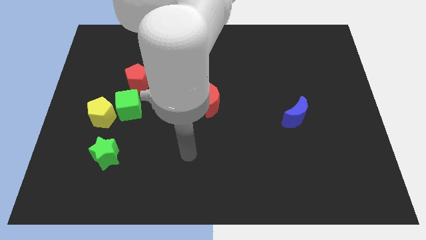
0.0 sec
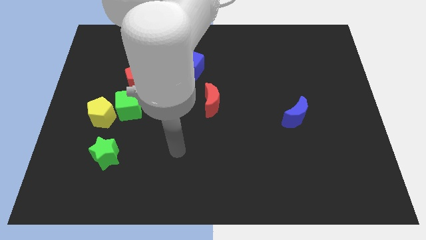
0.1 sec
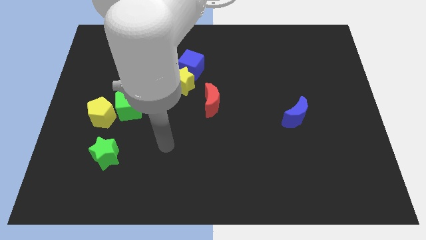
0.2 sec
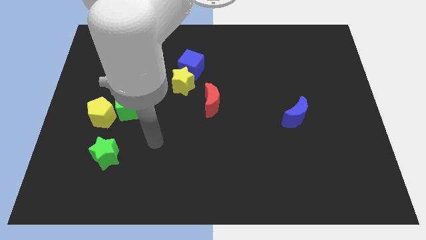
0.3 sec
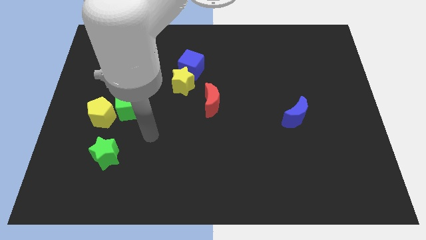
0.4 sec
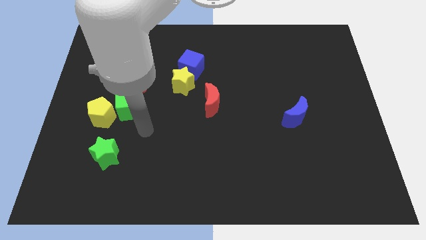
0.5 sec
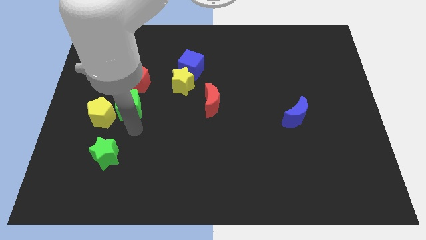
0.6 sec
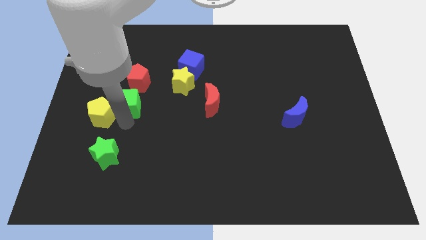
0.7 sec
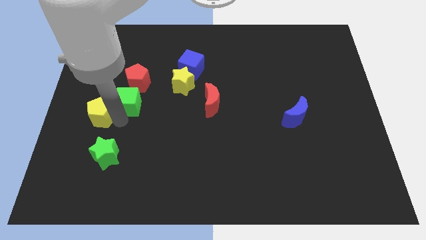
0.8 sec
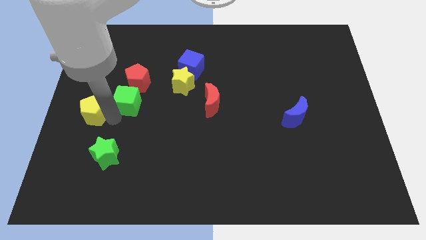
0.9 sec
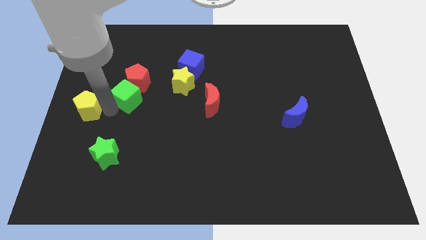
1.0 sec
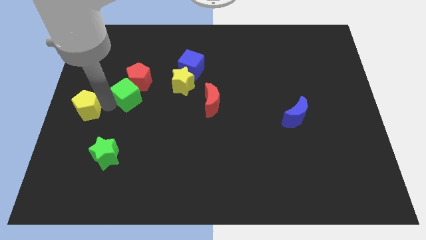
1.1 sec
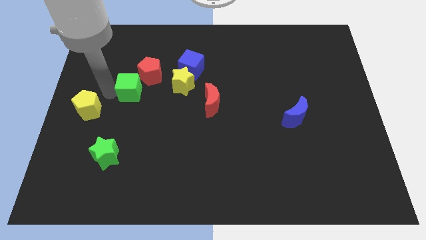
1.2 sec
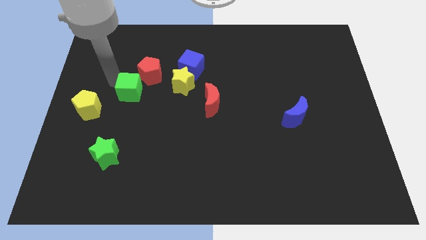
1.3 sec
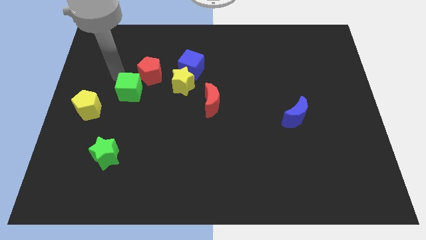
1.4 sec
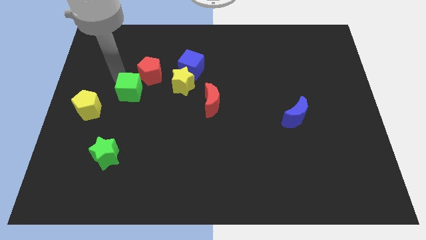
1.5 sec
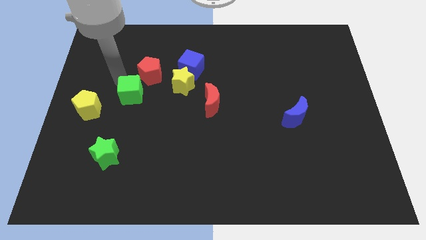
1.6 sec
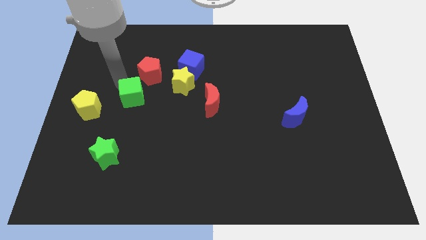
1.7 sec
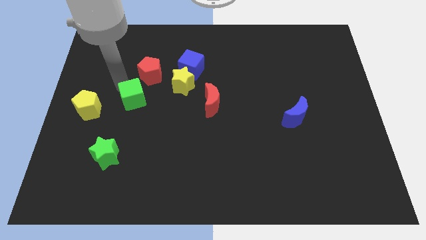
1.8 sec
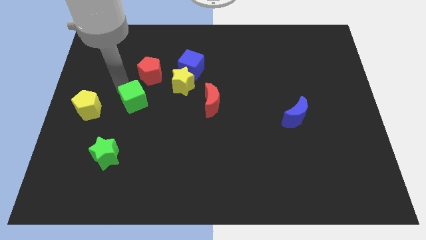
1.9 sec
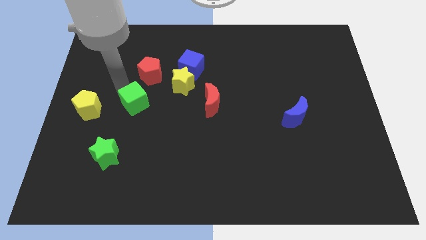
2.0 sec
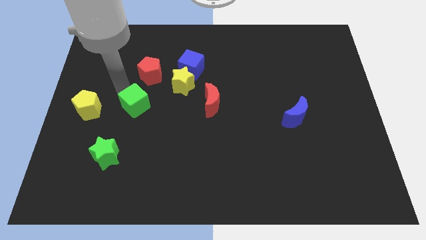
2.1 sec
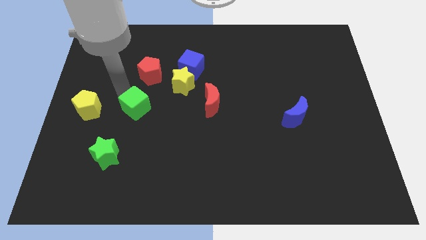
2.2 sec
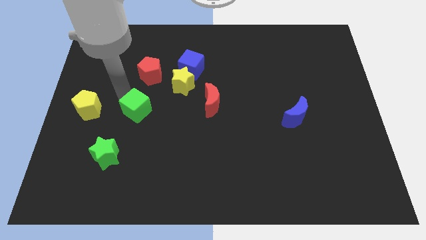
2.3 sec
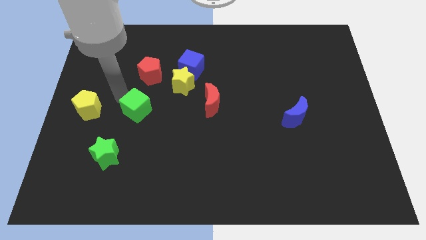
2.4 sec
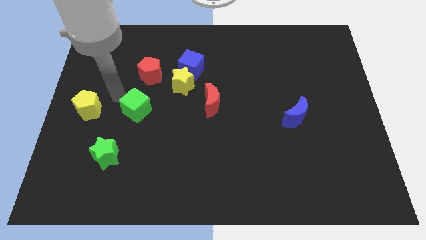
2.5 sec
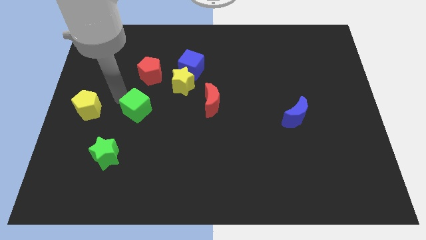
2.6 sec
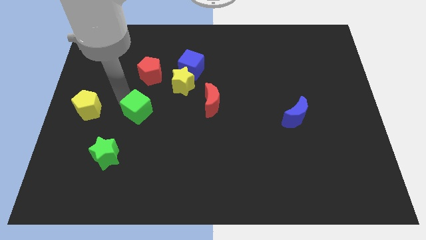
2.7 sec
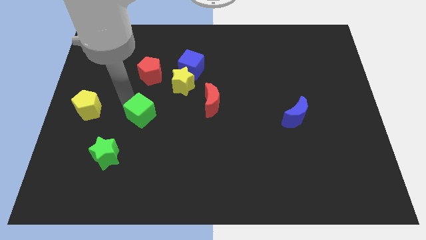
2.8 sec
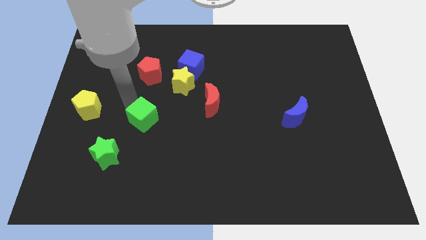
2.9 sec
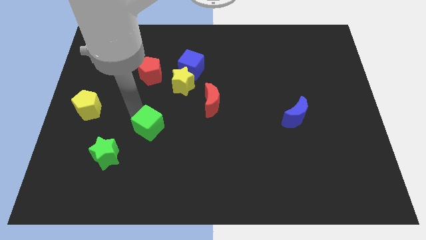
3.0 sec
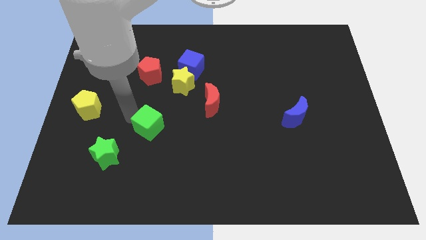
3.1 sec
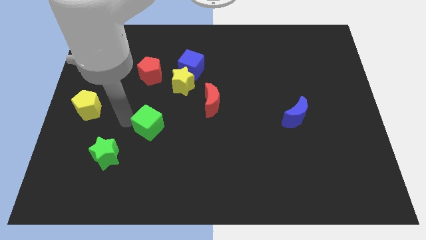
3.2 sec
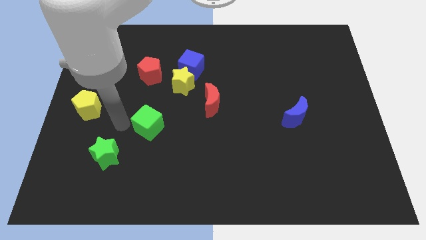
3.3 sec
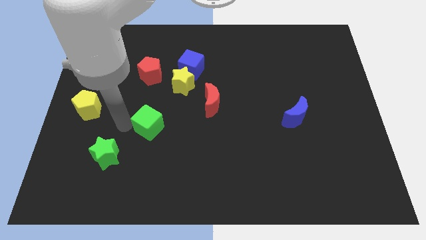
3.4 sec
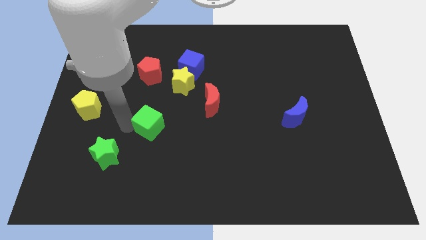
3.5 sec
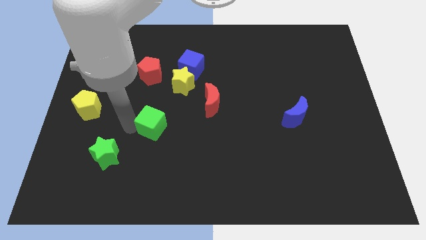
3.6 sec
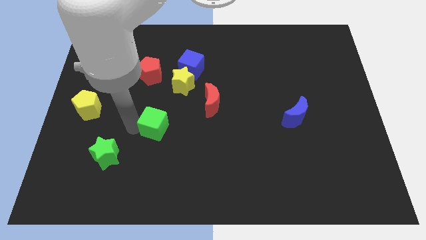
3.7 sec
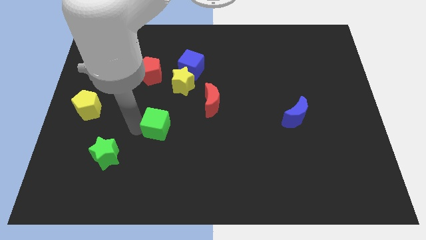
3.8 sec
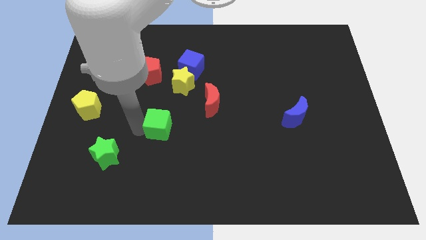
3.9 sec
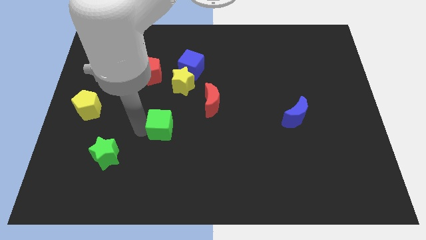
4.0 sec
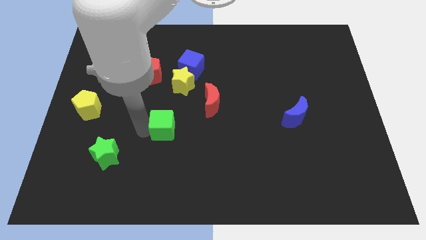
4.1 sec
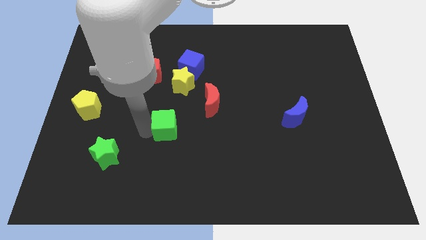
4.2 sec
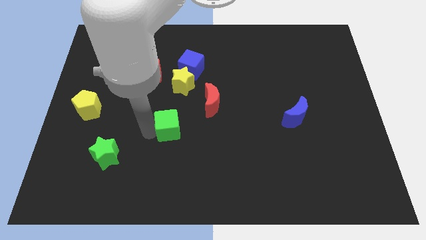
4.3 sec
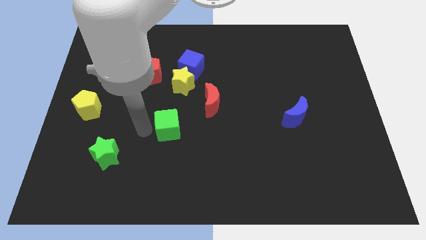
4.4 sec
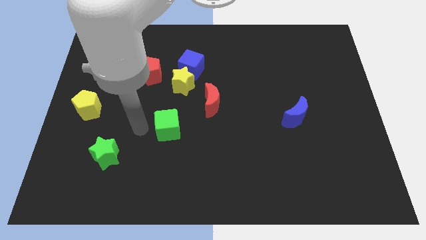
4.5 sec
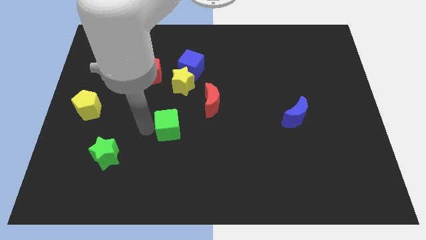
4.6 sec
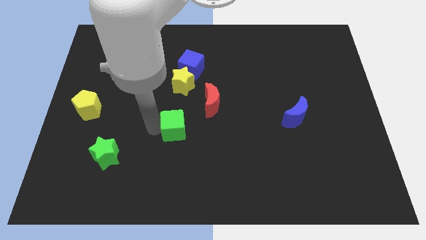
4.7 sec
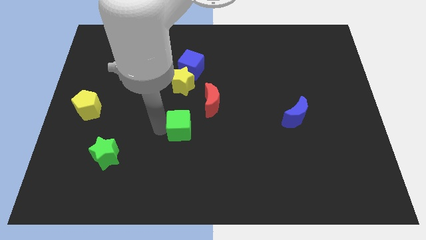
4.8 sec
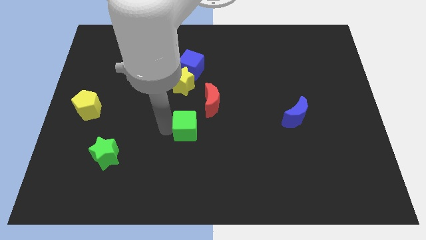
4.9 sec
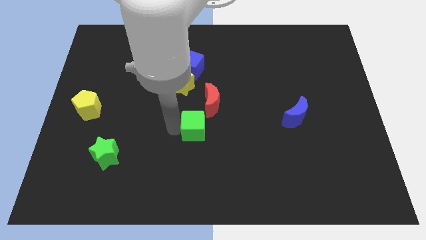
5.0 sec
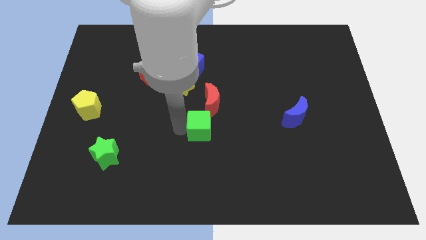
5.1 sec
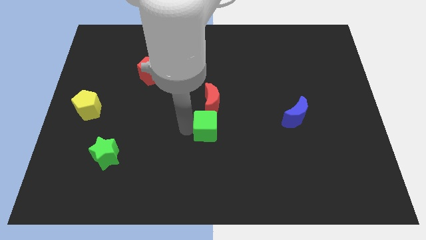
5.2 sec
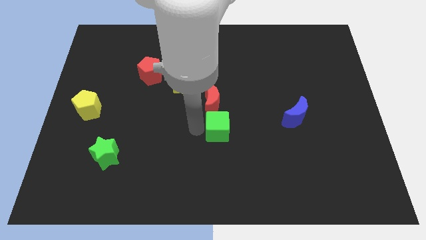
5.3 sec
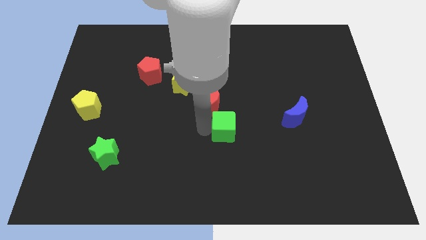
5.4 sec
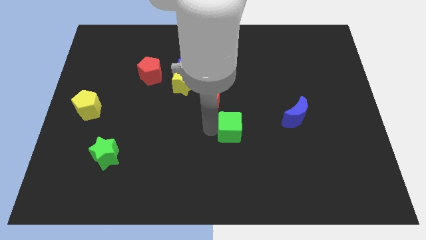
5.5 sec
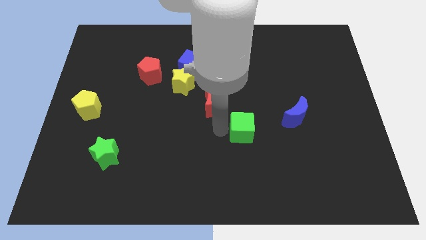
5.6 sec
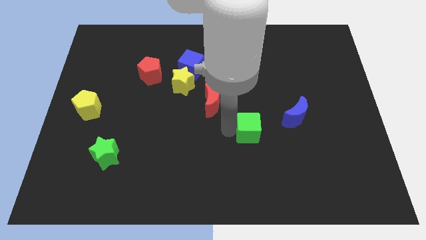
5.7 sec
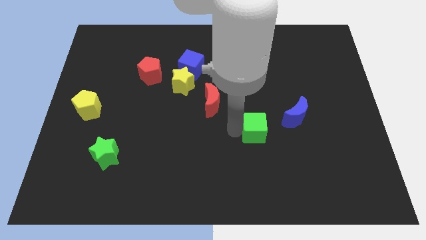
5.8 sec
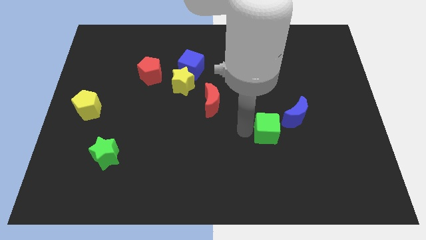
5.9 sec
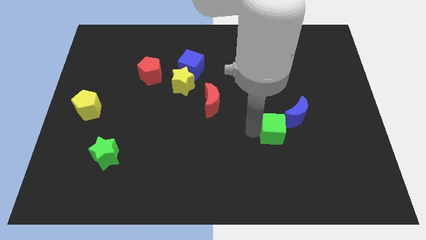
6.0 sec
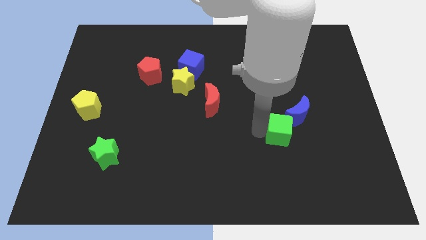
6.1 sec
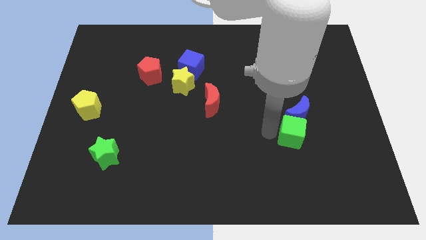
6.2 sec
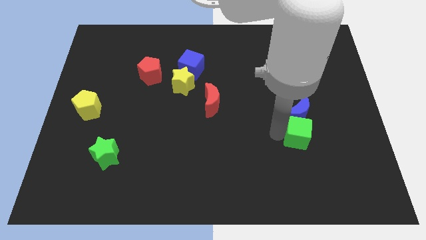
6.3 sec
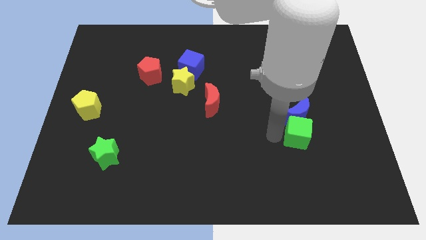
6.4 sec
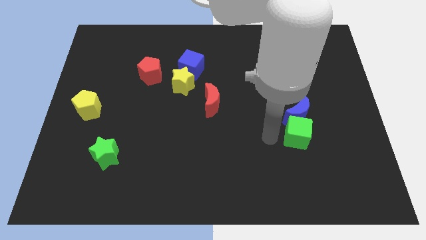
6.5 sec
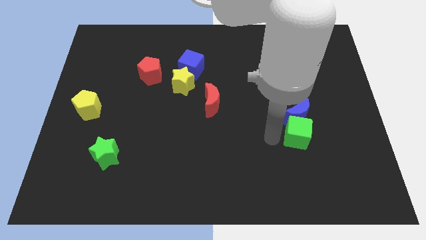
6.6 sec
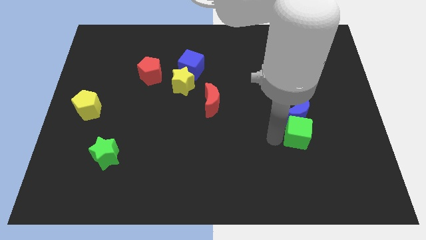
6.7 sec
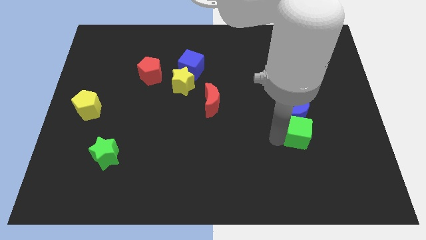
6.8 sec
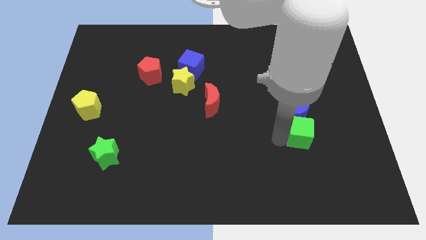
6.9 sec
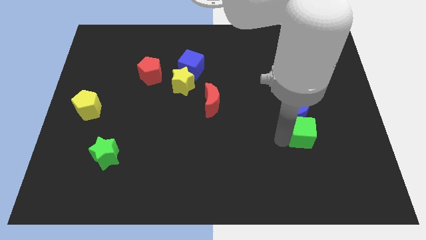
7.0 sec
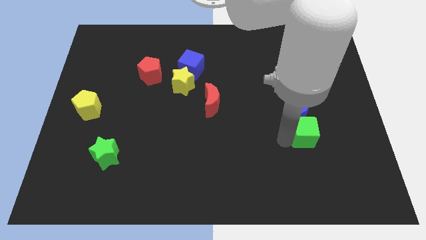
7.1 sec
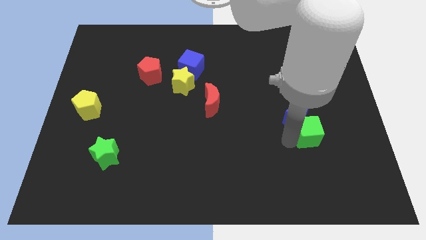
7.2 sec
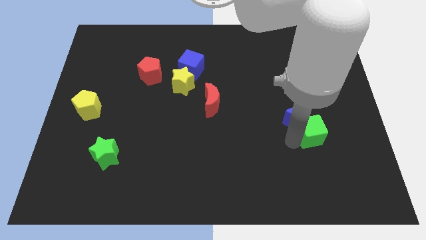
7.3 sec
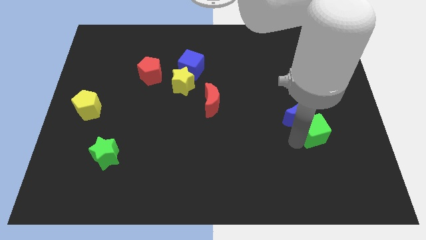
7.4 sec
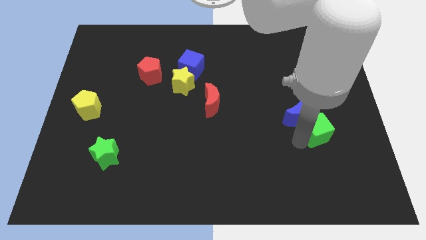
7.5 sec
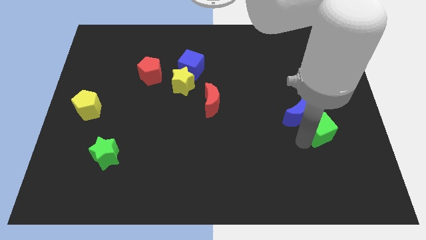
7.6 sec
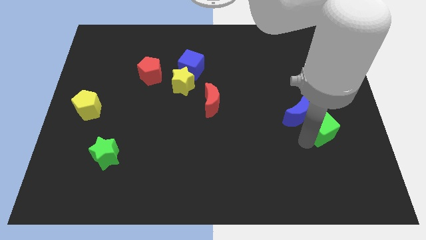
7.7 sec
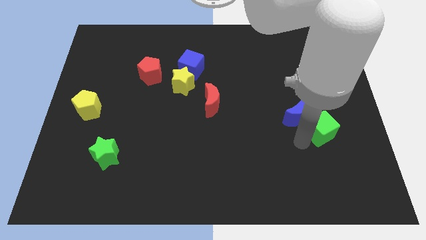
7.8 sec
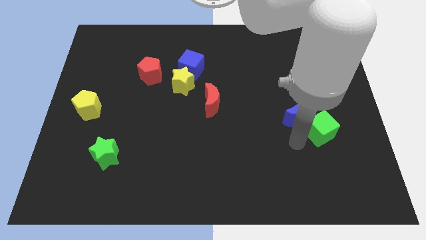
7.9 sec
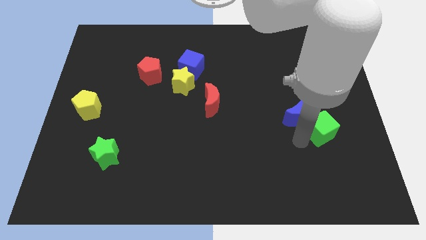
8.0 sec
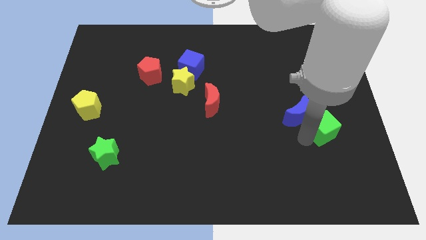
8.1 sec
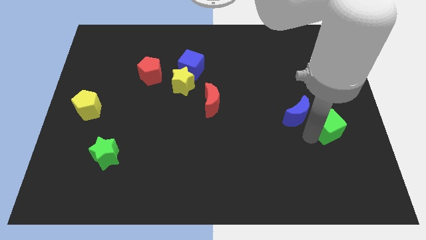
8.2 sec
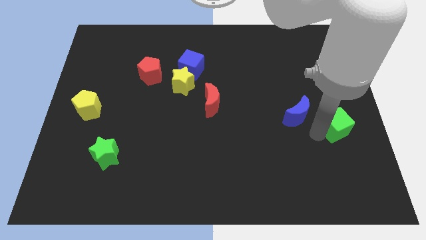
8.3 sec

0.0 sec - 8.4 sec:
move the green cube to the center right
